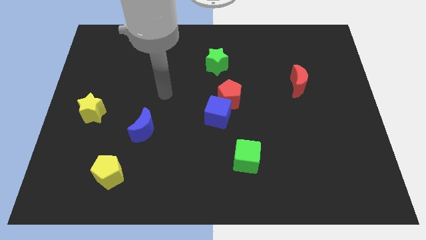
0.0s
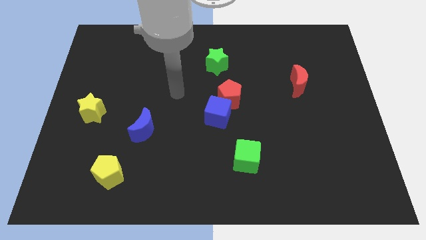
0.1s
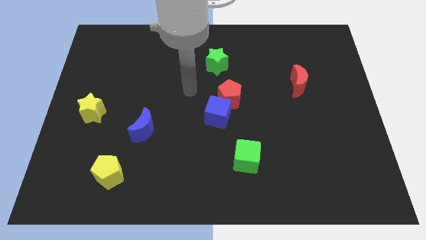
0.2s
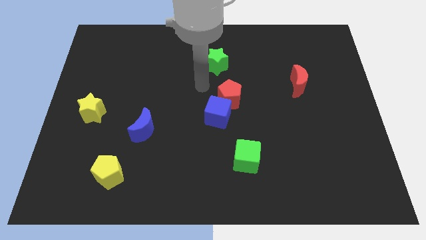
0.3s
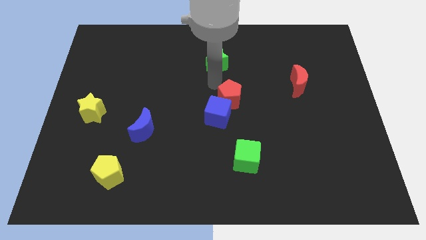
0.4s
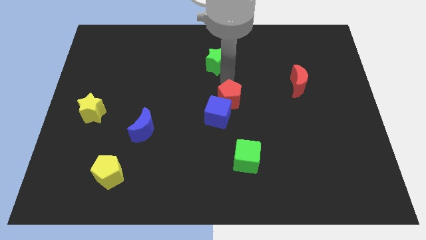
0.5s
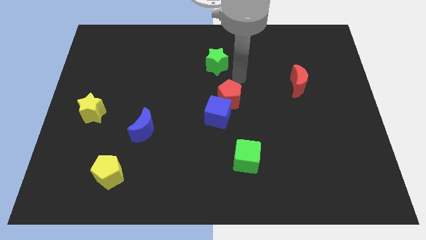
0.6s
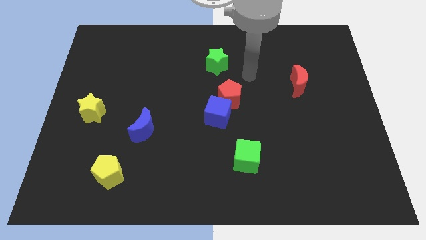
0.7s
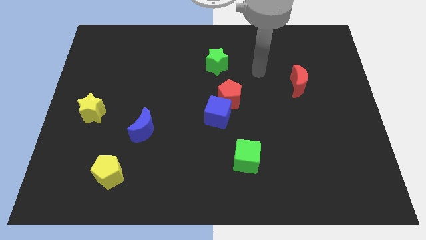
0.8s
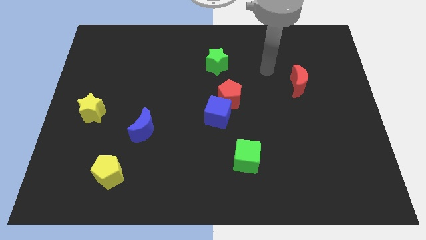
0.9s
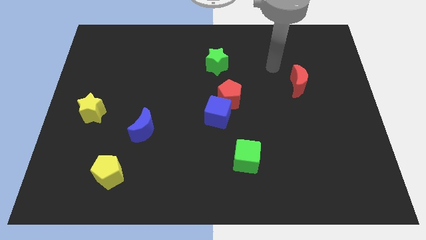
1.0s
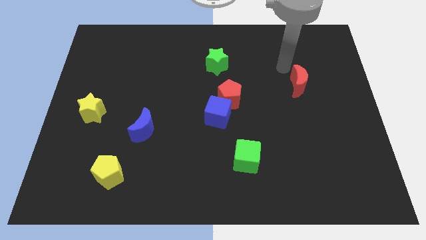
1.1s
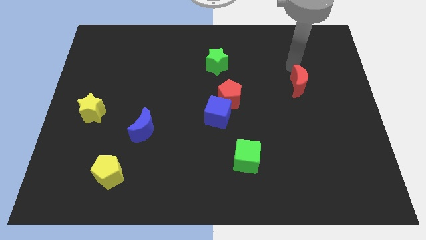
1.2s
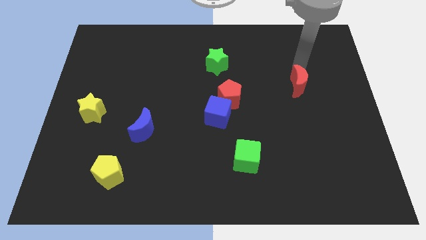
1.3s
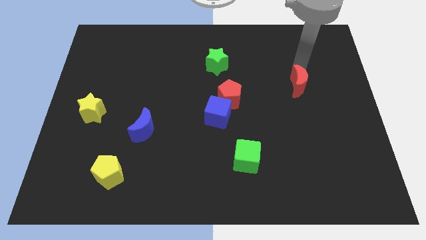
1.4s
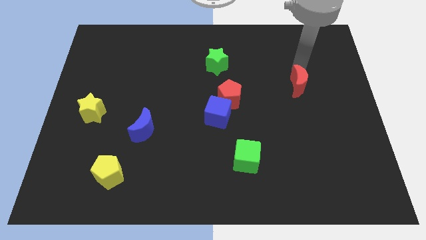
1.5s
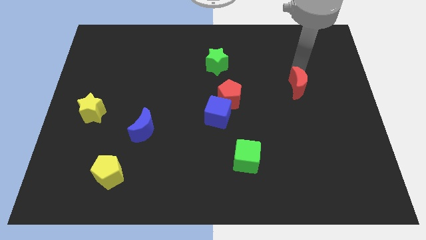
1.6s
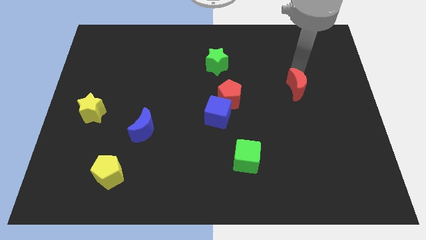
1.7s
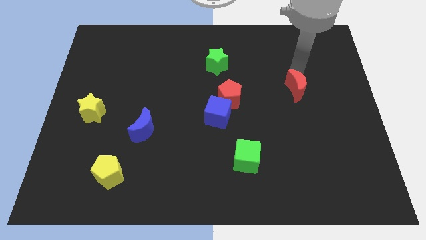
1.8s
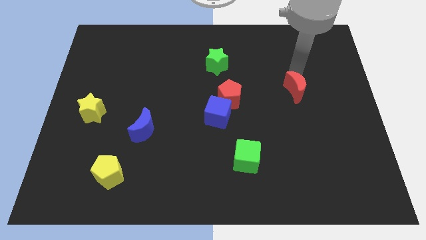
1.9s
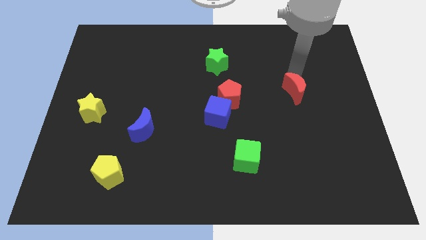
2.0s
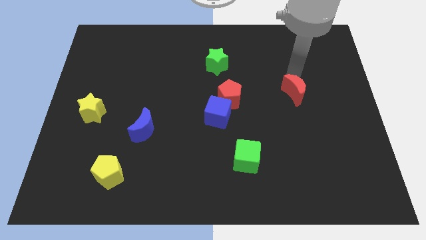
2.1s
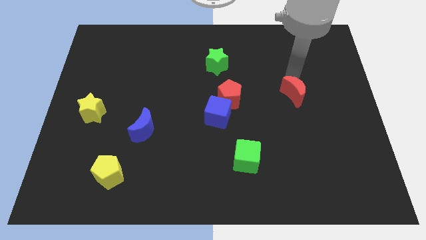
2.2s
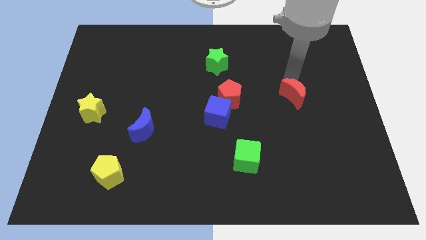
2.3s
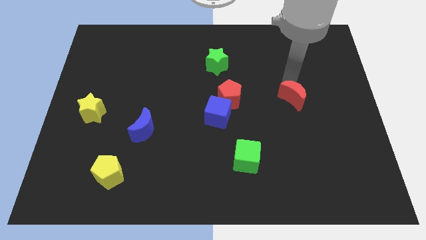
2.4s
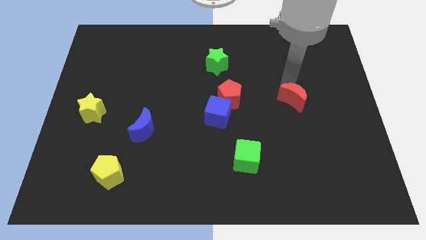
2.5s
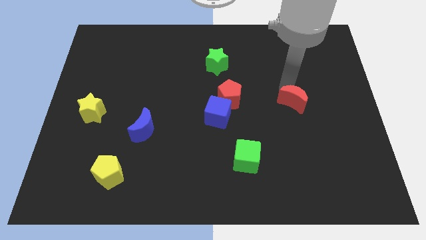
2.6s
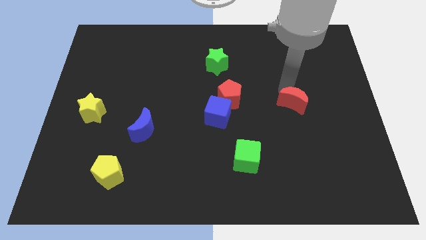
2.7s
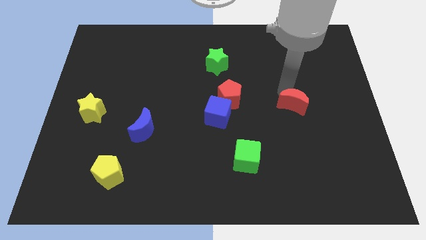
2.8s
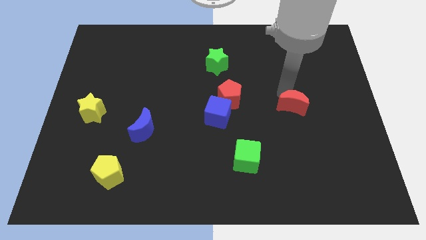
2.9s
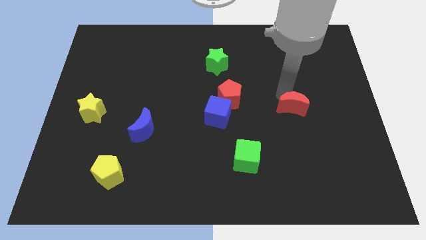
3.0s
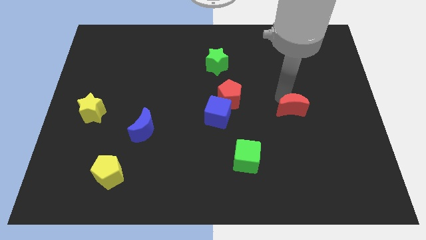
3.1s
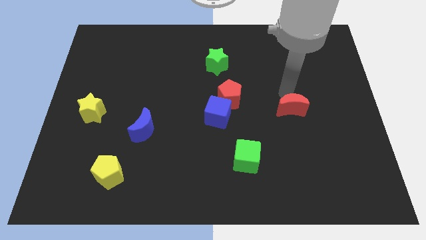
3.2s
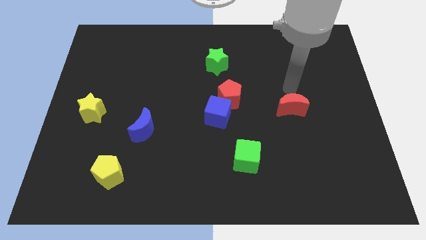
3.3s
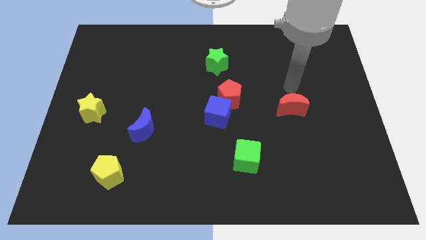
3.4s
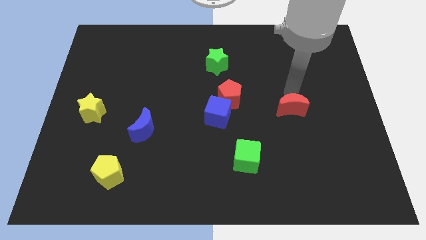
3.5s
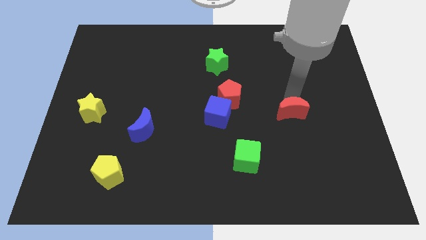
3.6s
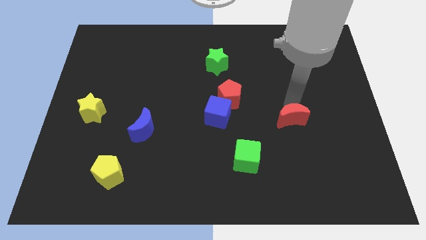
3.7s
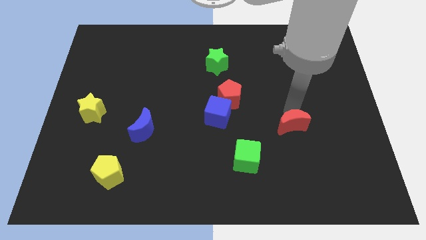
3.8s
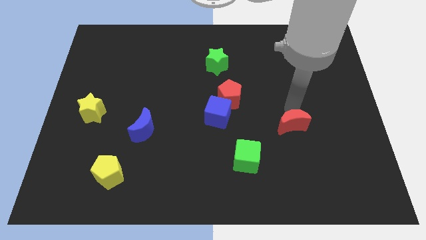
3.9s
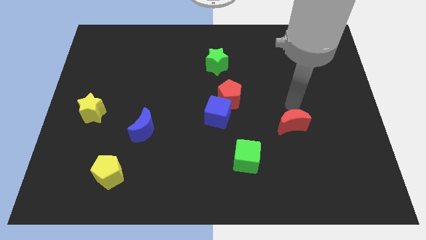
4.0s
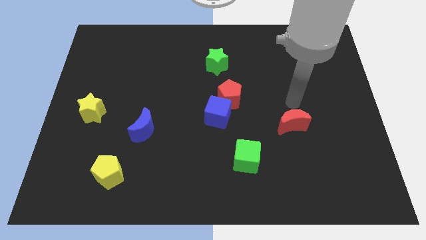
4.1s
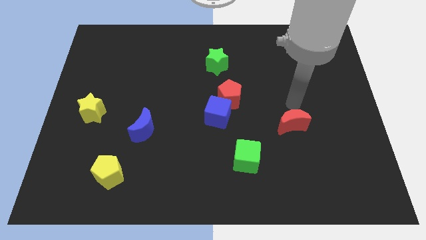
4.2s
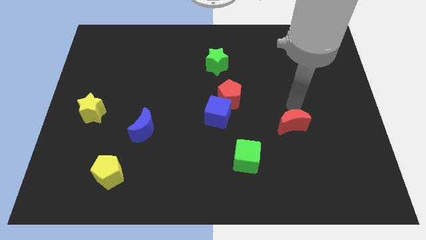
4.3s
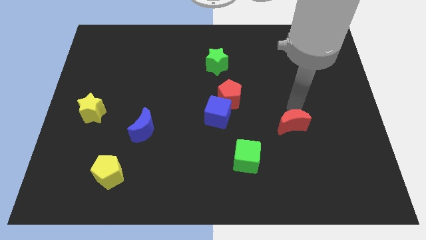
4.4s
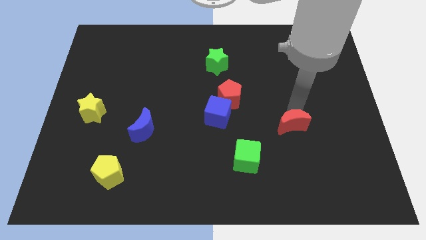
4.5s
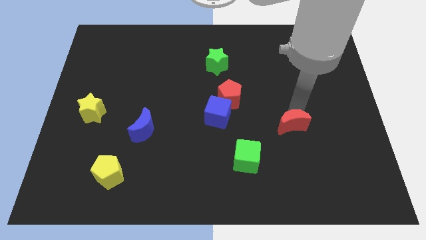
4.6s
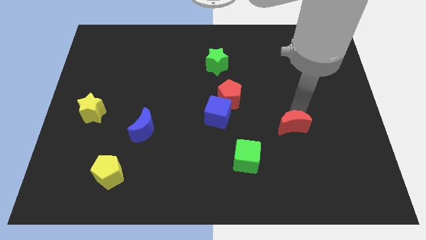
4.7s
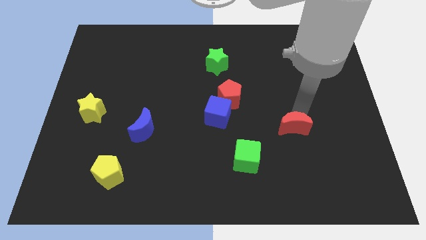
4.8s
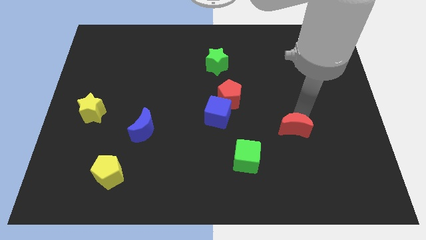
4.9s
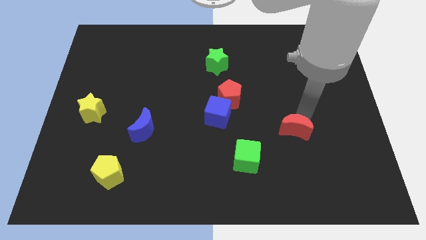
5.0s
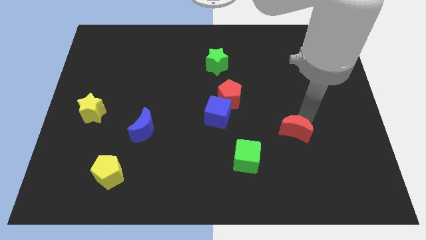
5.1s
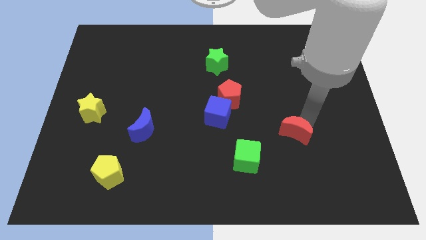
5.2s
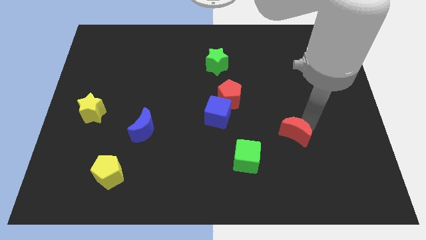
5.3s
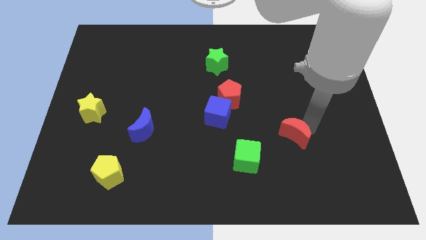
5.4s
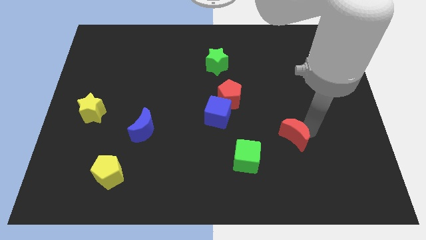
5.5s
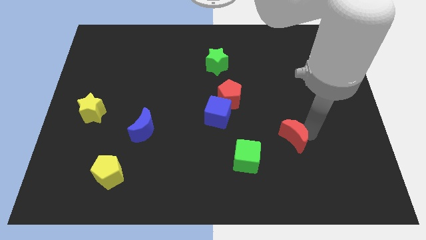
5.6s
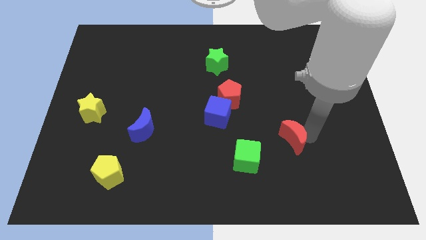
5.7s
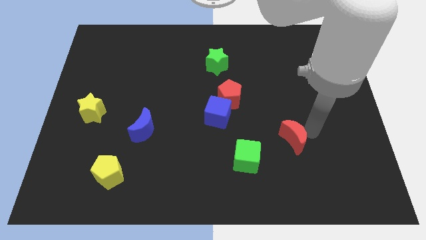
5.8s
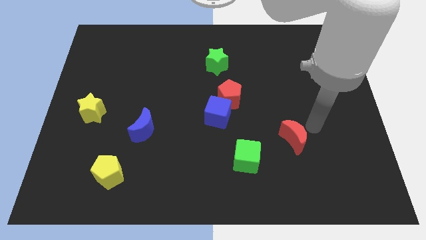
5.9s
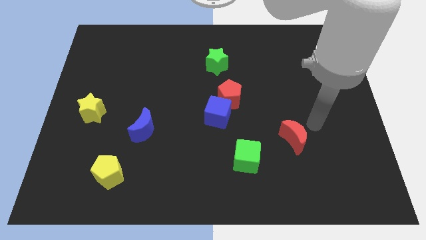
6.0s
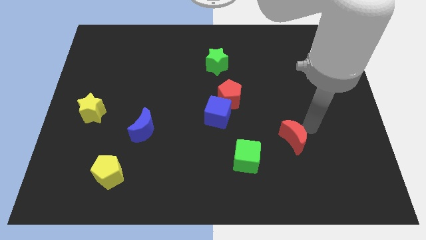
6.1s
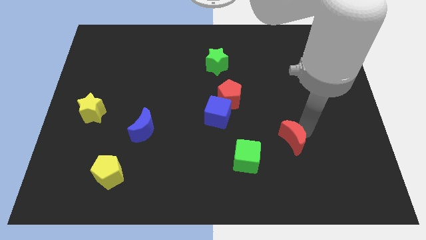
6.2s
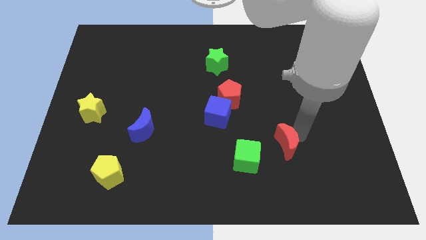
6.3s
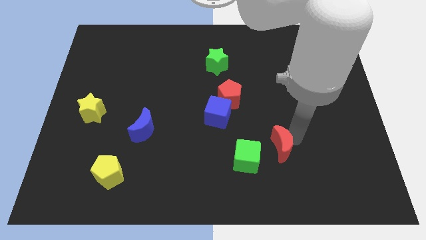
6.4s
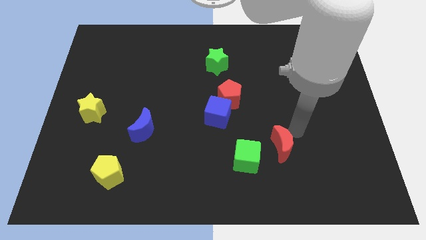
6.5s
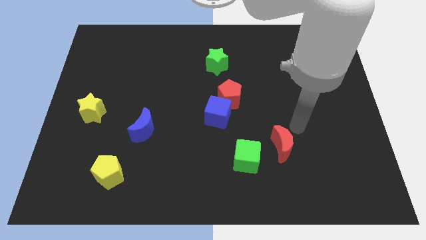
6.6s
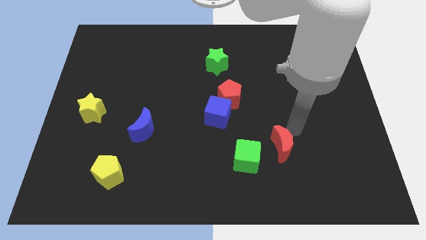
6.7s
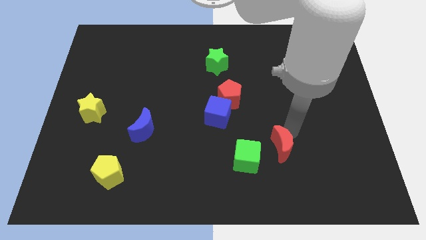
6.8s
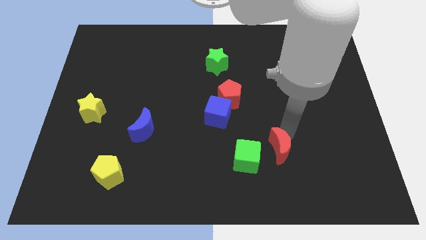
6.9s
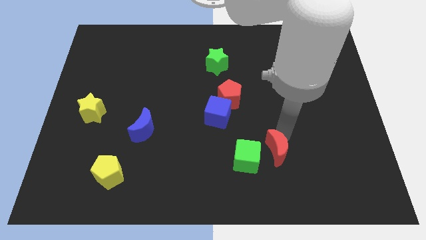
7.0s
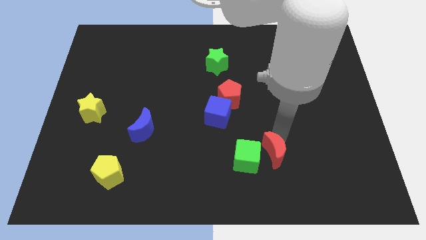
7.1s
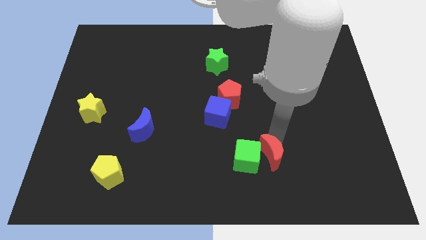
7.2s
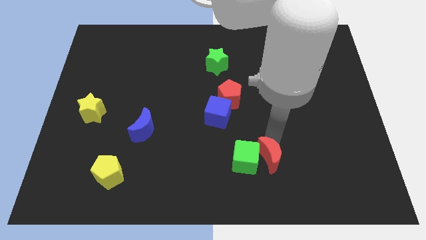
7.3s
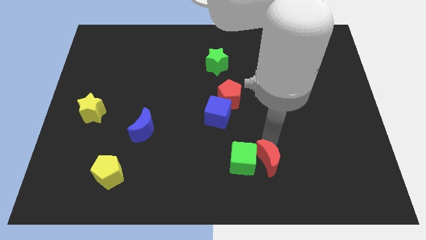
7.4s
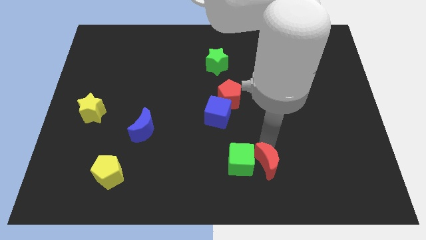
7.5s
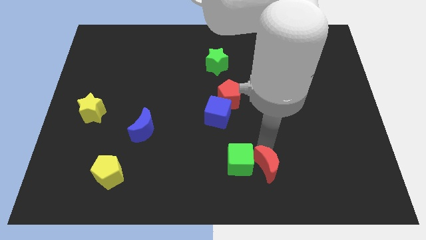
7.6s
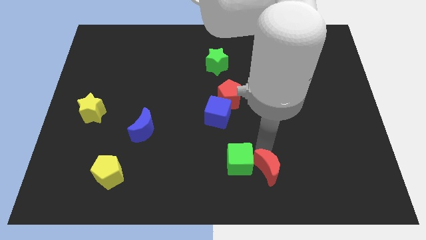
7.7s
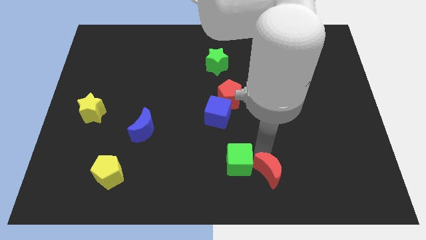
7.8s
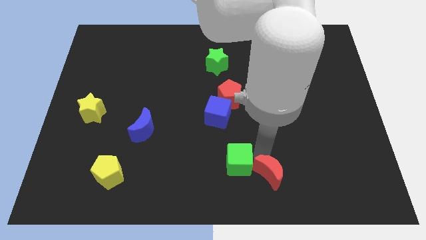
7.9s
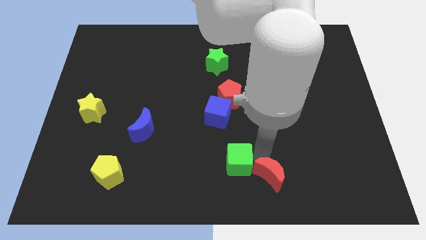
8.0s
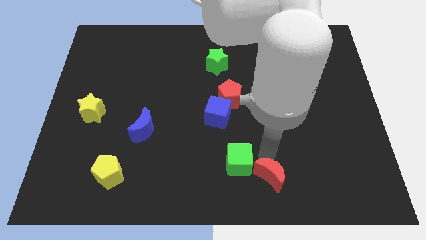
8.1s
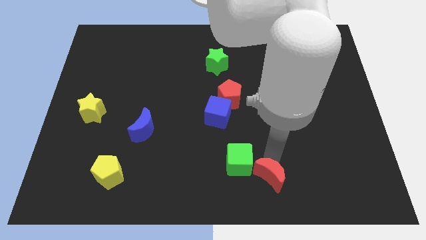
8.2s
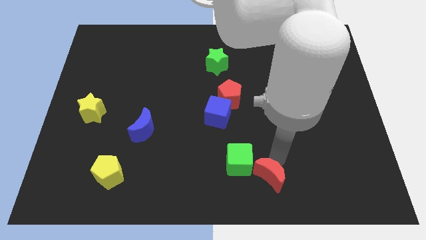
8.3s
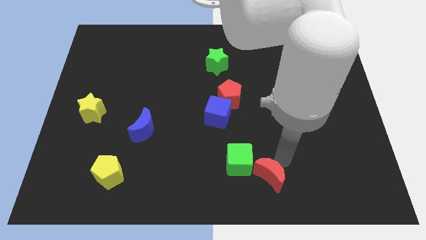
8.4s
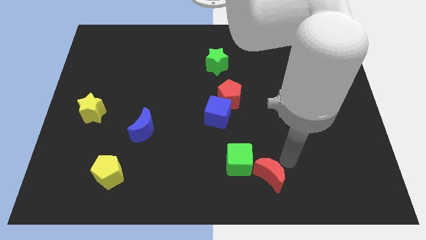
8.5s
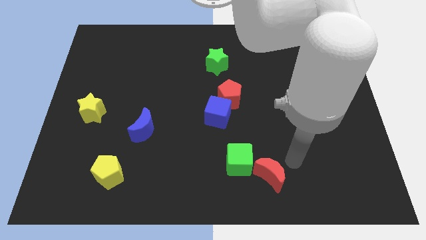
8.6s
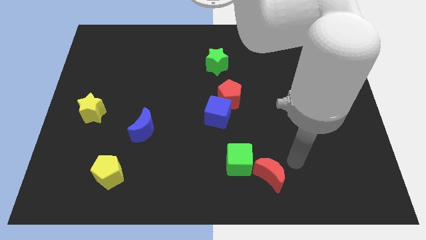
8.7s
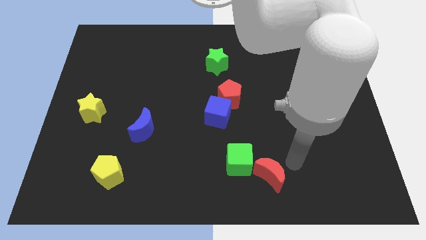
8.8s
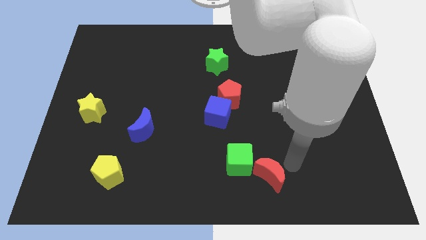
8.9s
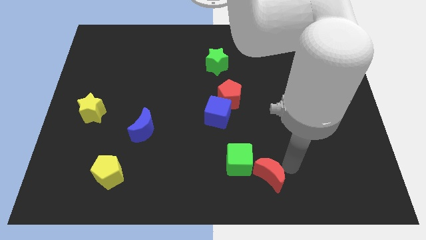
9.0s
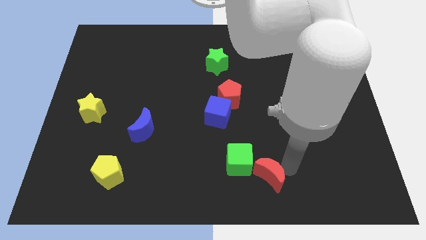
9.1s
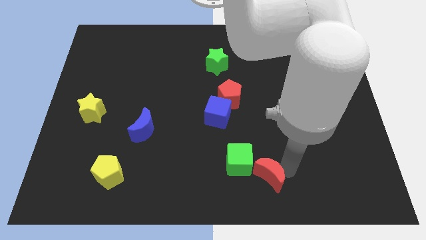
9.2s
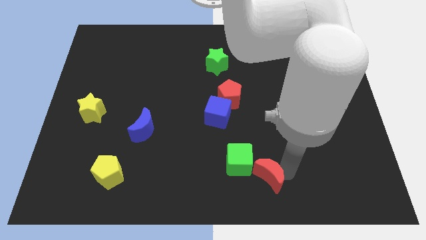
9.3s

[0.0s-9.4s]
slide the red moon to the bottom side
